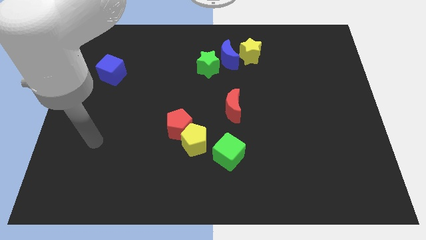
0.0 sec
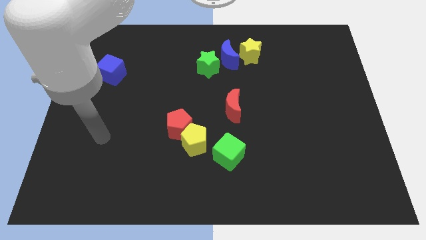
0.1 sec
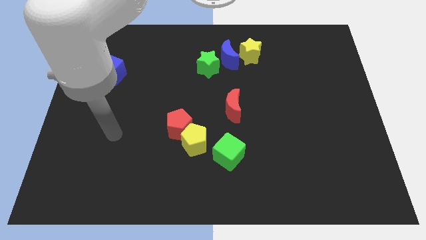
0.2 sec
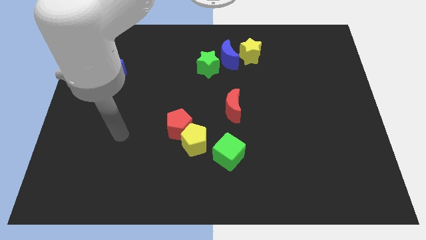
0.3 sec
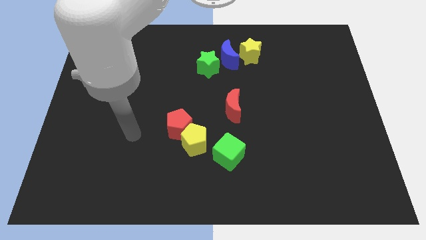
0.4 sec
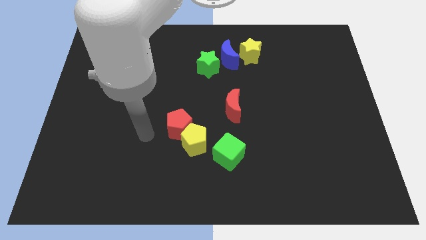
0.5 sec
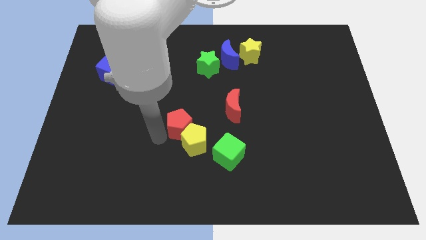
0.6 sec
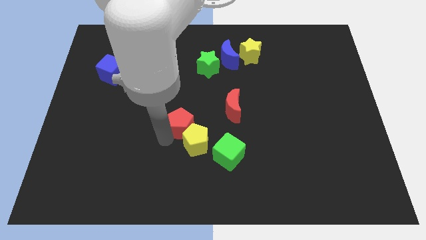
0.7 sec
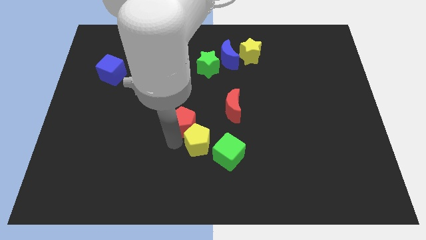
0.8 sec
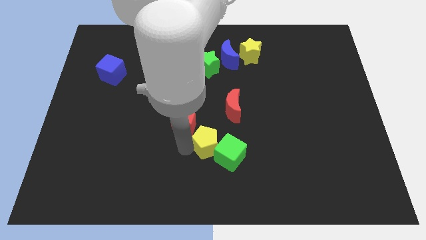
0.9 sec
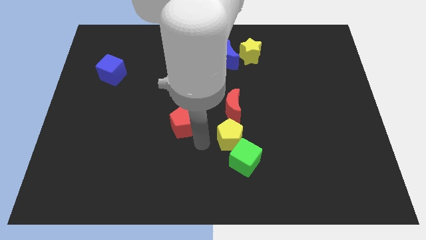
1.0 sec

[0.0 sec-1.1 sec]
separate the red pentagon from the yellow pentagon

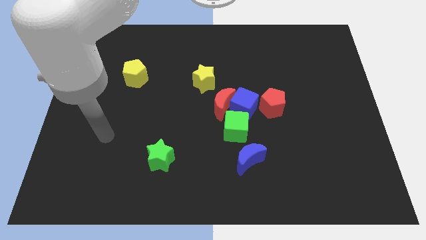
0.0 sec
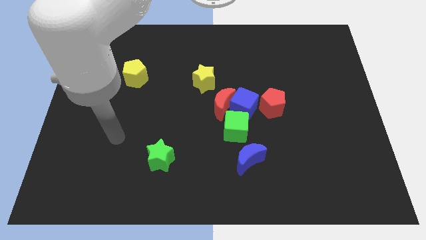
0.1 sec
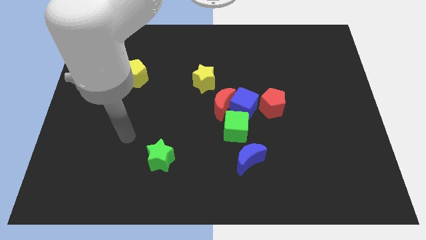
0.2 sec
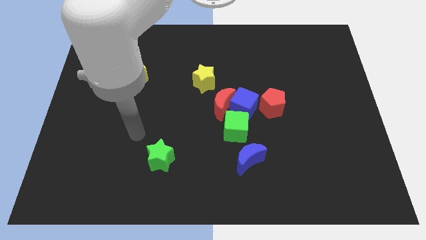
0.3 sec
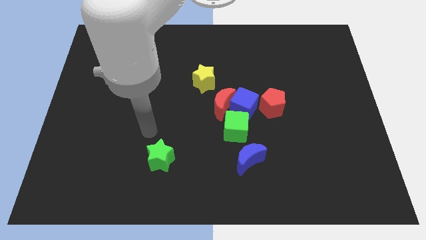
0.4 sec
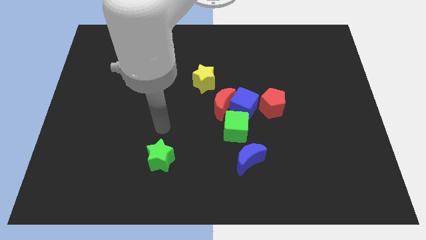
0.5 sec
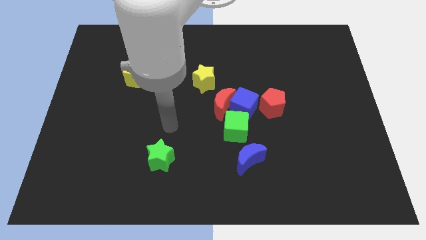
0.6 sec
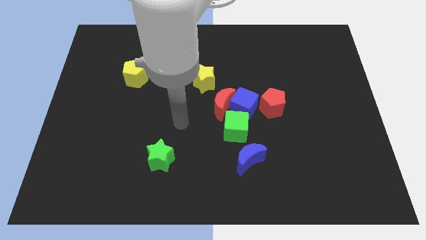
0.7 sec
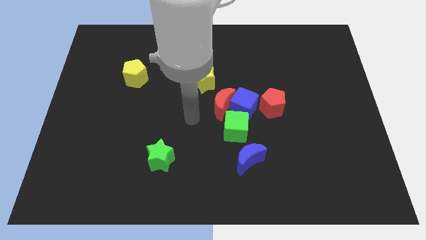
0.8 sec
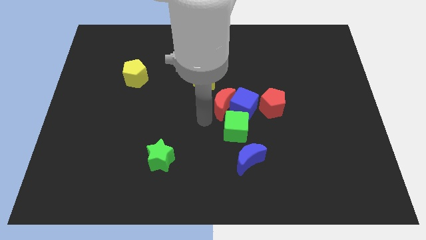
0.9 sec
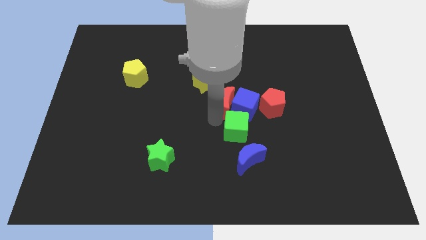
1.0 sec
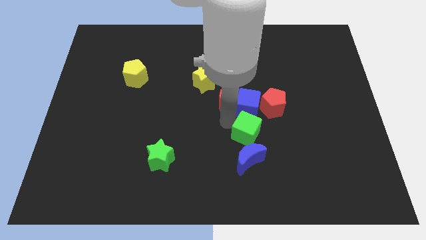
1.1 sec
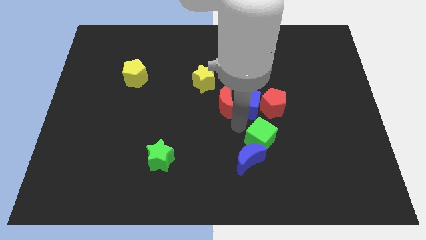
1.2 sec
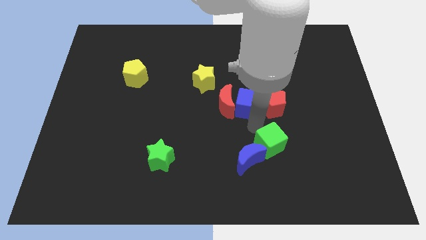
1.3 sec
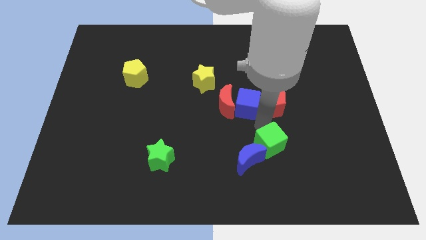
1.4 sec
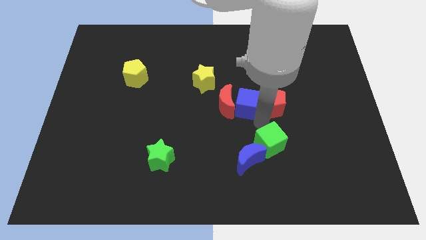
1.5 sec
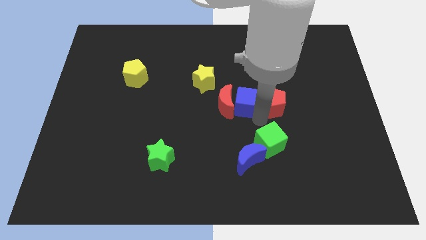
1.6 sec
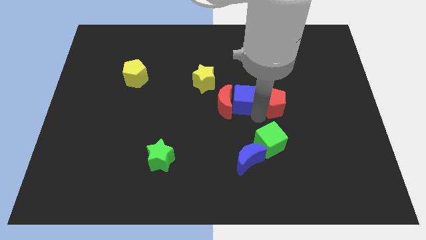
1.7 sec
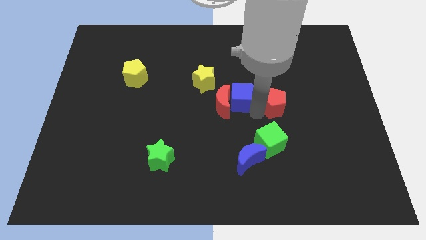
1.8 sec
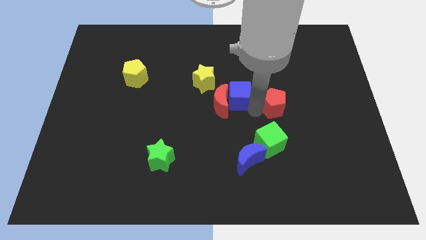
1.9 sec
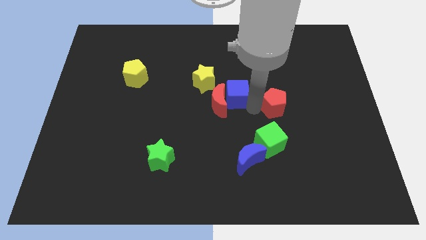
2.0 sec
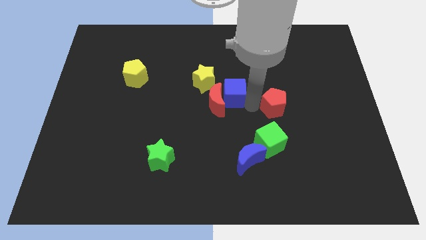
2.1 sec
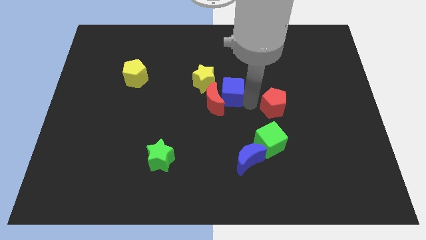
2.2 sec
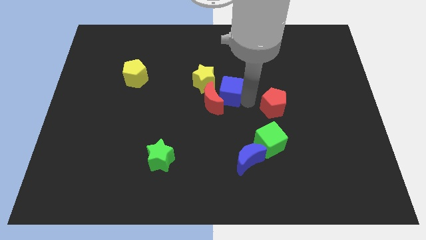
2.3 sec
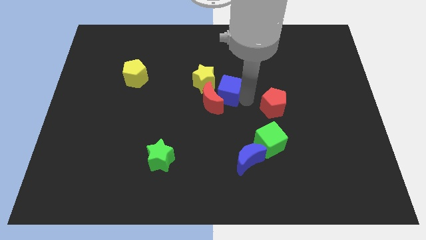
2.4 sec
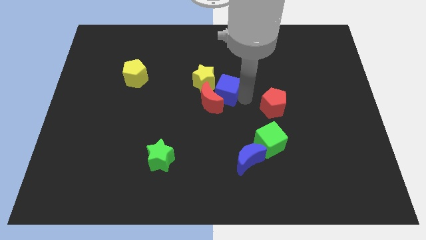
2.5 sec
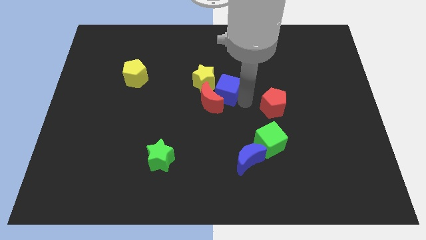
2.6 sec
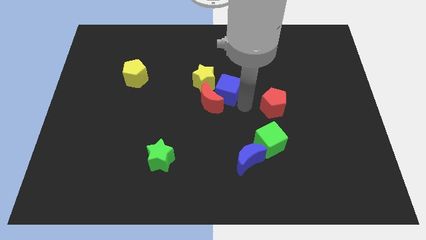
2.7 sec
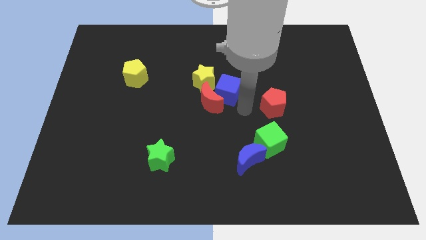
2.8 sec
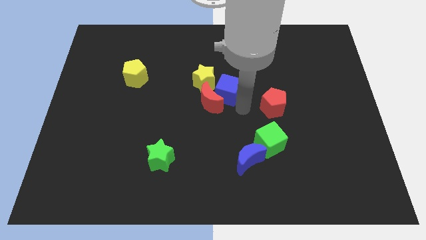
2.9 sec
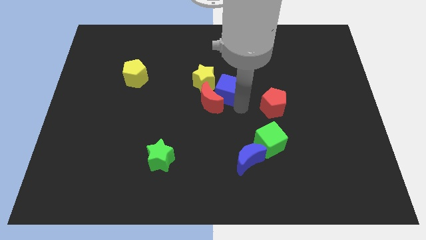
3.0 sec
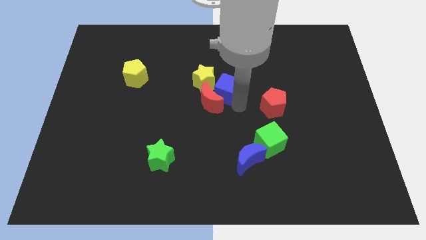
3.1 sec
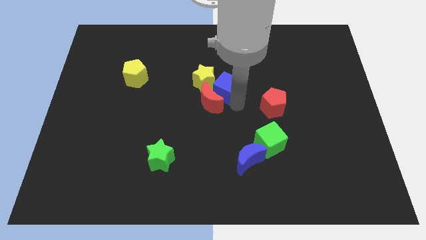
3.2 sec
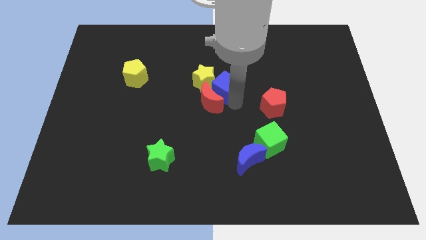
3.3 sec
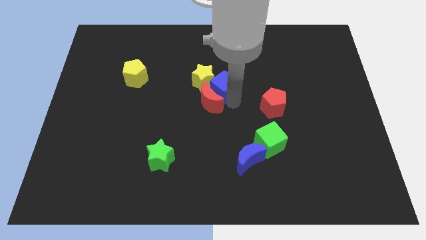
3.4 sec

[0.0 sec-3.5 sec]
pull the blue cube apart from the red moon, green cube, and red pentagon

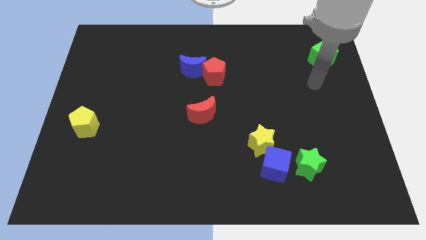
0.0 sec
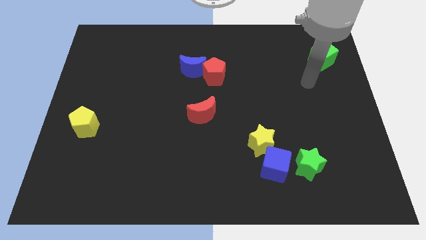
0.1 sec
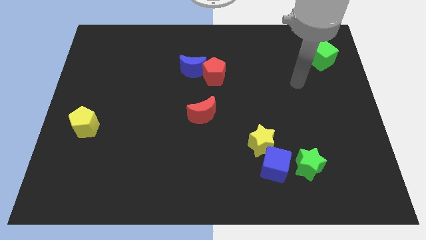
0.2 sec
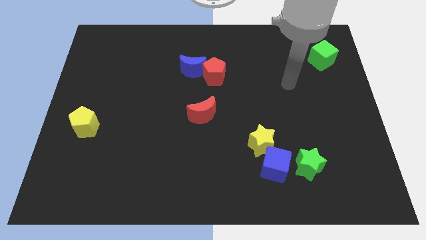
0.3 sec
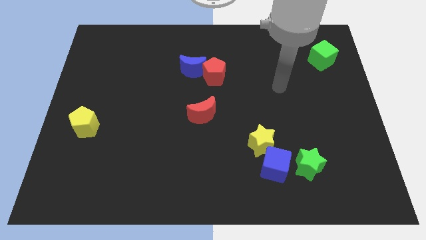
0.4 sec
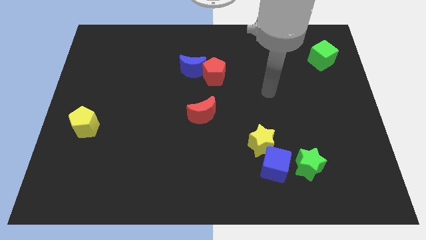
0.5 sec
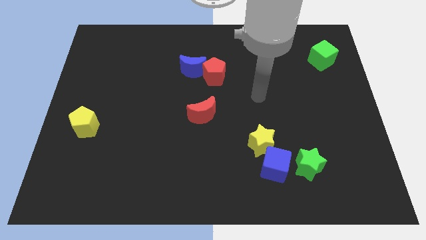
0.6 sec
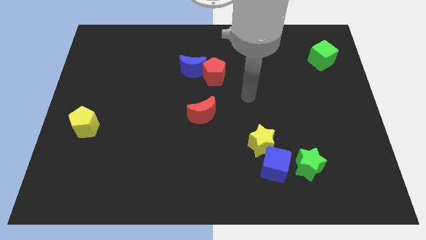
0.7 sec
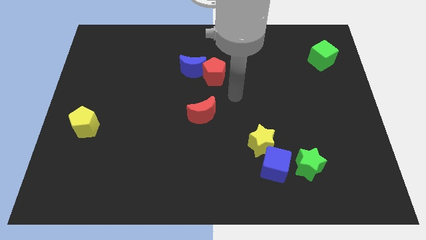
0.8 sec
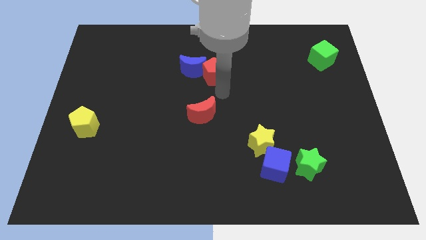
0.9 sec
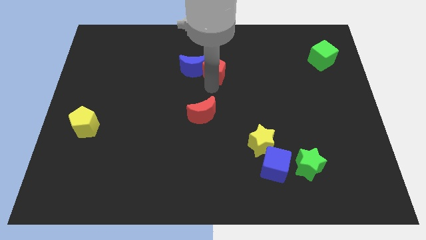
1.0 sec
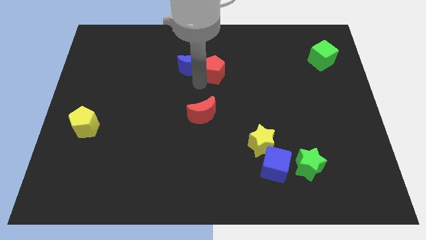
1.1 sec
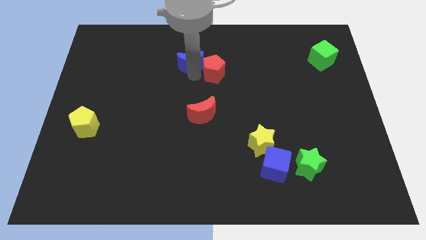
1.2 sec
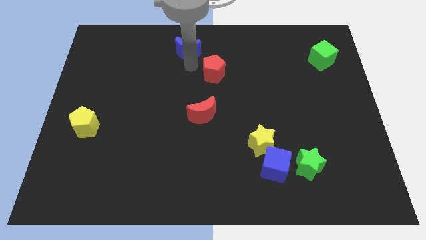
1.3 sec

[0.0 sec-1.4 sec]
move the red pentagon away from the blue moon

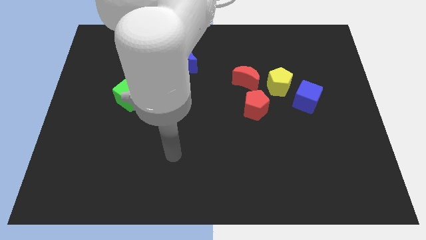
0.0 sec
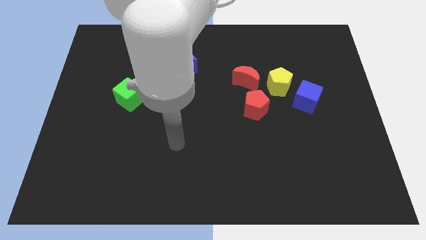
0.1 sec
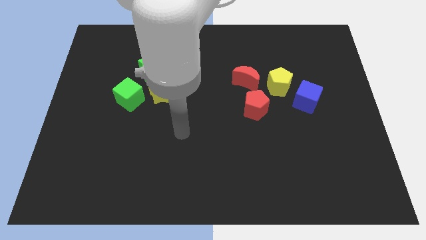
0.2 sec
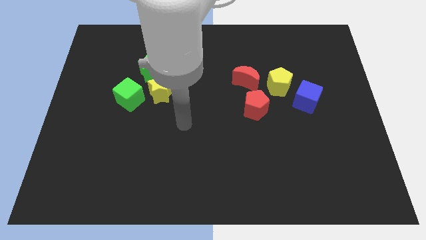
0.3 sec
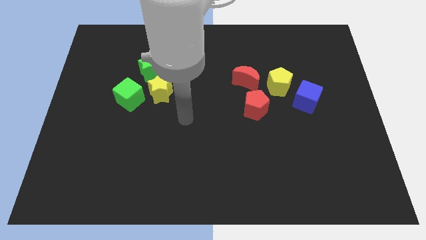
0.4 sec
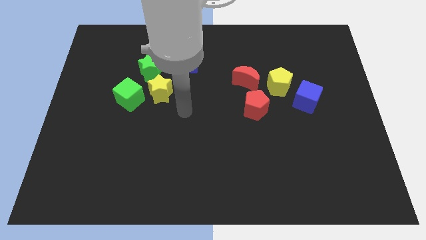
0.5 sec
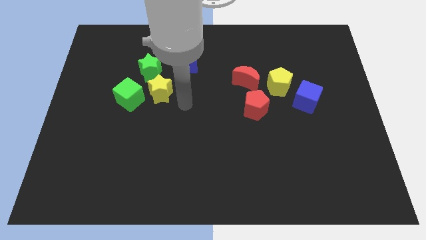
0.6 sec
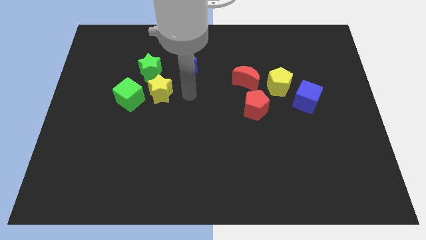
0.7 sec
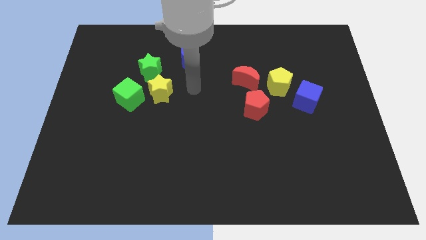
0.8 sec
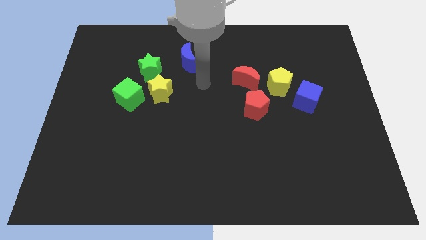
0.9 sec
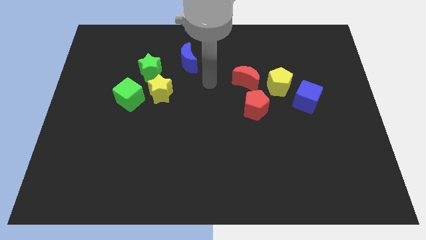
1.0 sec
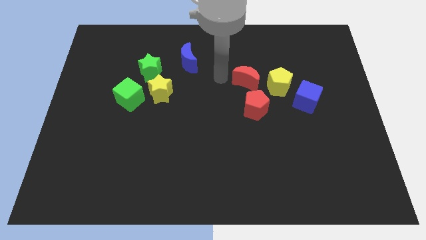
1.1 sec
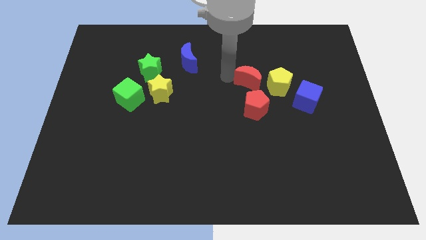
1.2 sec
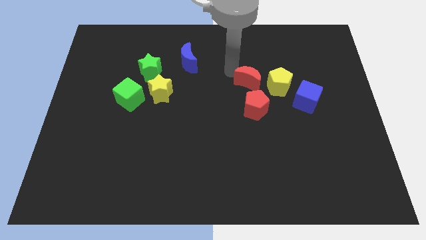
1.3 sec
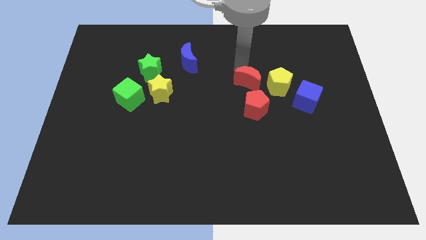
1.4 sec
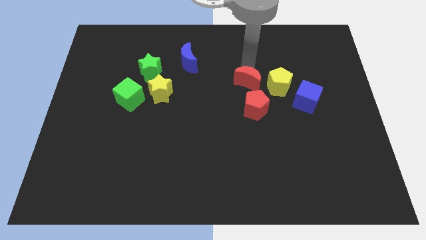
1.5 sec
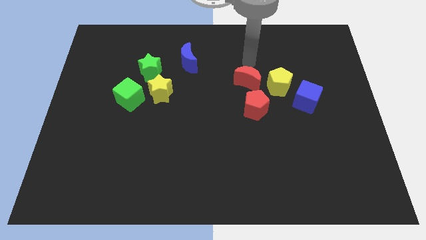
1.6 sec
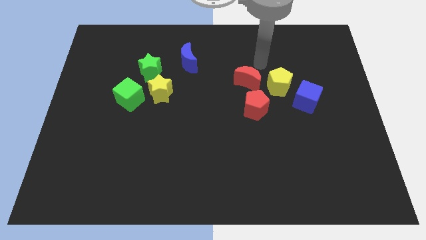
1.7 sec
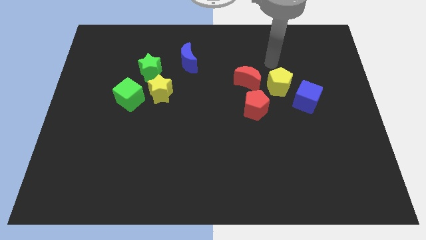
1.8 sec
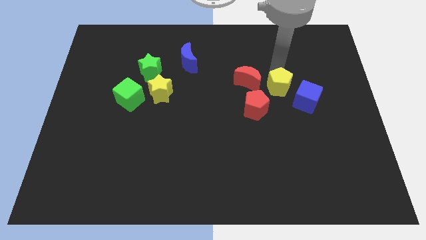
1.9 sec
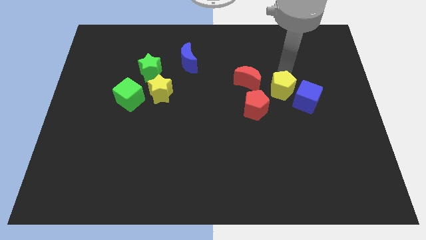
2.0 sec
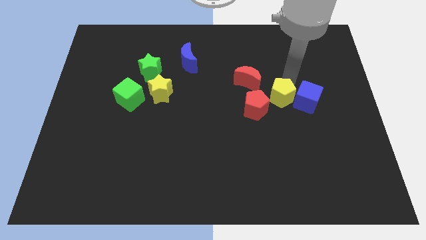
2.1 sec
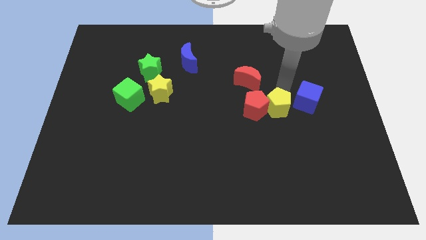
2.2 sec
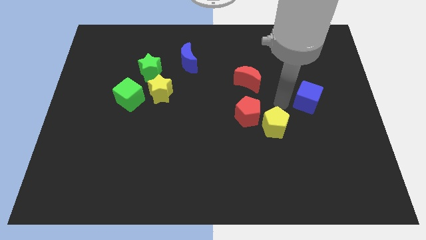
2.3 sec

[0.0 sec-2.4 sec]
pull the blue cube apart from the yellow pentagon

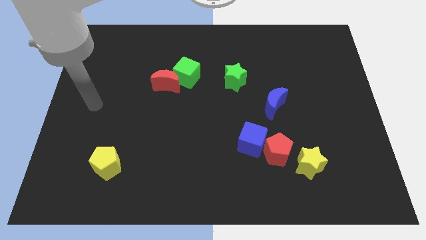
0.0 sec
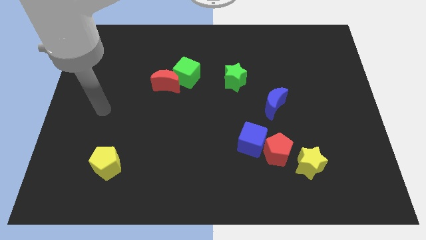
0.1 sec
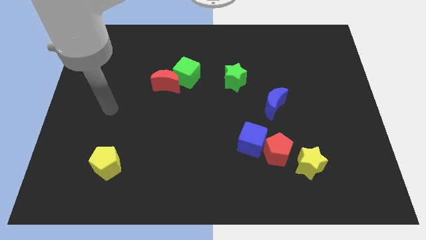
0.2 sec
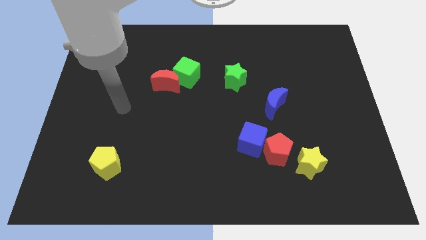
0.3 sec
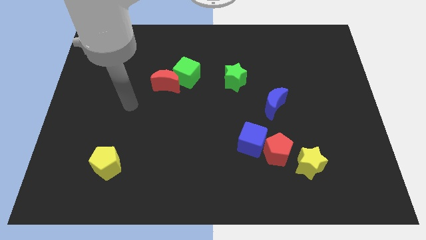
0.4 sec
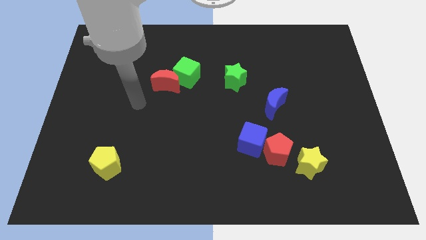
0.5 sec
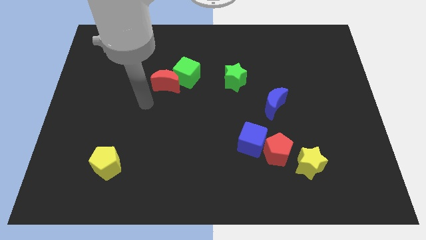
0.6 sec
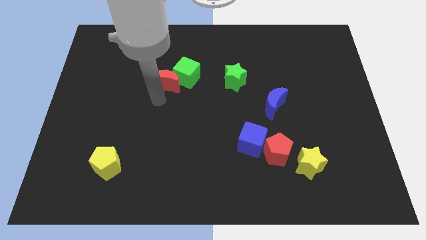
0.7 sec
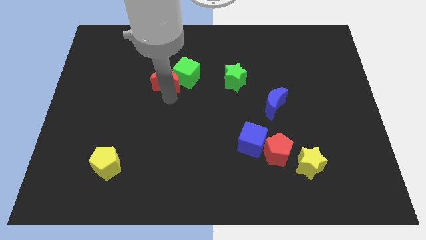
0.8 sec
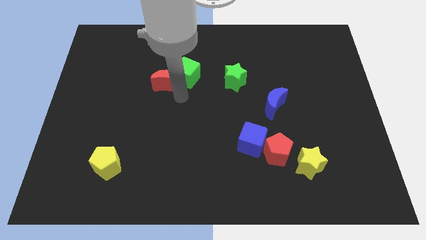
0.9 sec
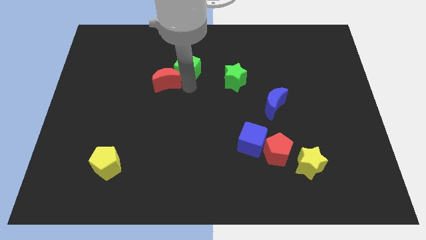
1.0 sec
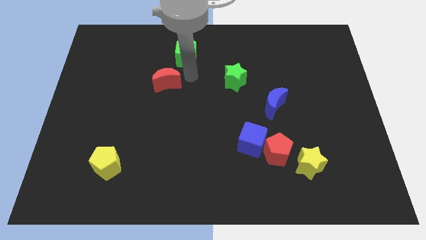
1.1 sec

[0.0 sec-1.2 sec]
move the red moon away from the green cube
